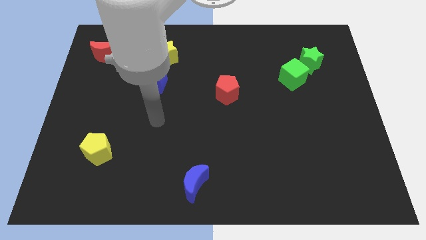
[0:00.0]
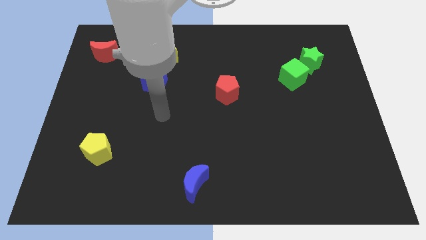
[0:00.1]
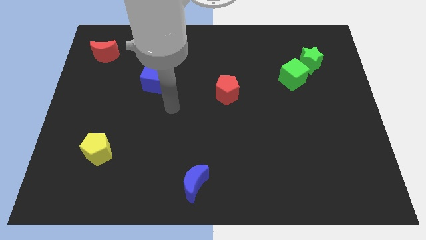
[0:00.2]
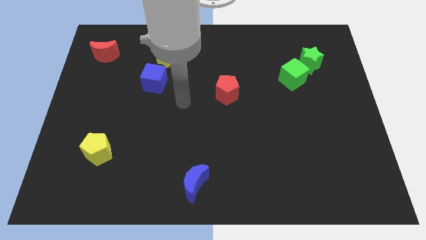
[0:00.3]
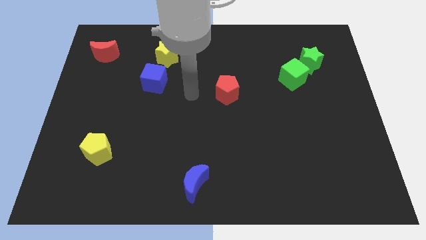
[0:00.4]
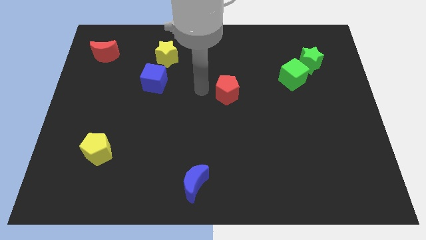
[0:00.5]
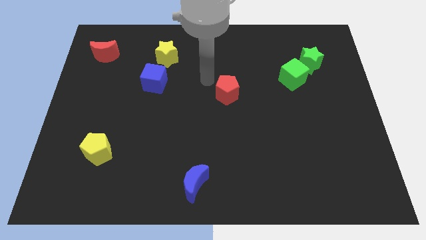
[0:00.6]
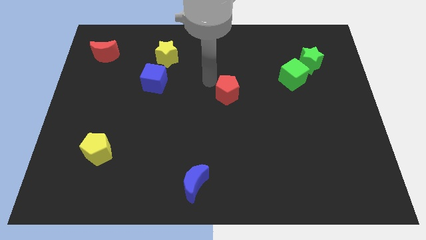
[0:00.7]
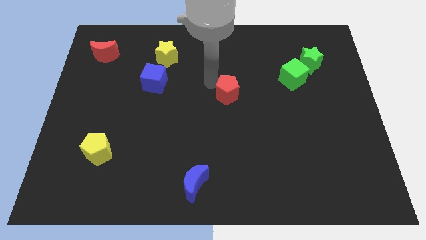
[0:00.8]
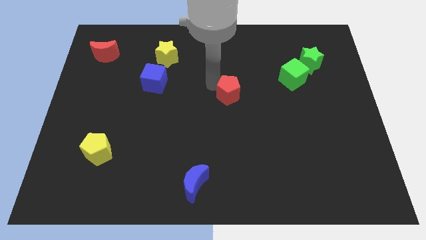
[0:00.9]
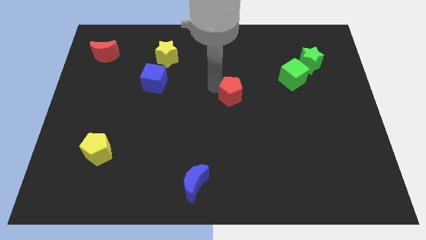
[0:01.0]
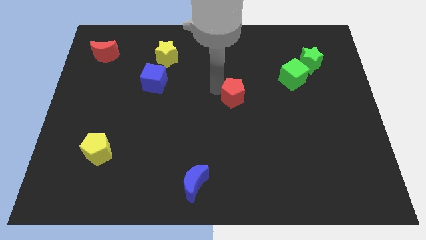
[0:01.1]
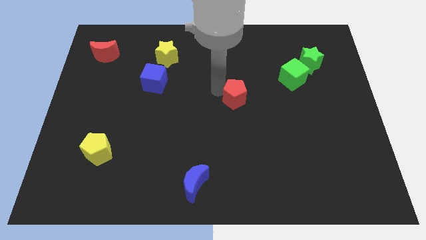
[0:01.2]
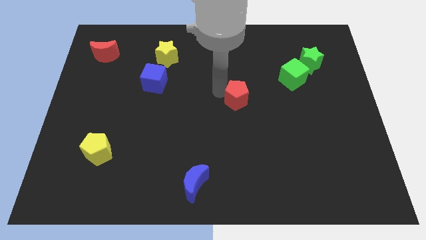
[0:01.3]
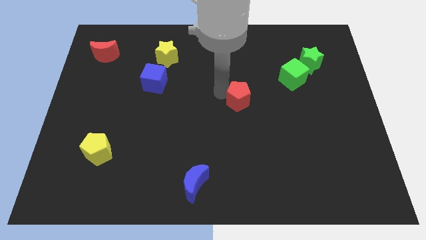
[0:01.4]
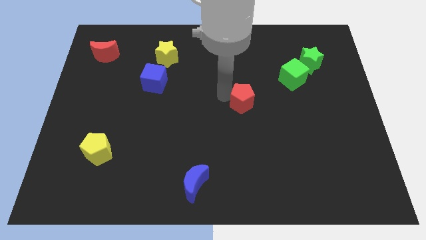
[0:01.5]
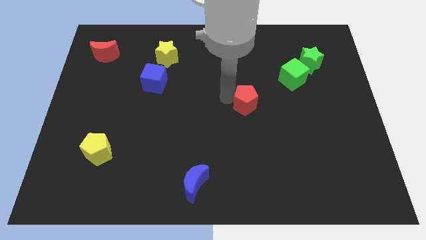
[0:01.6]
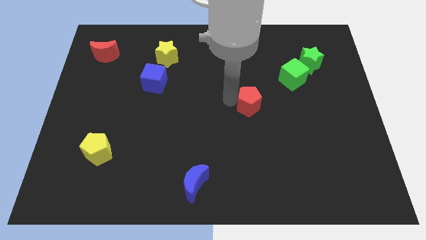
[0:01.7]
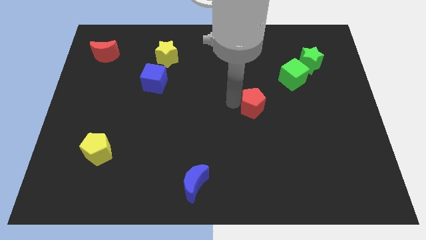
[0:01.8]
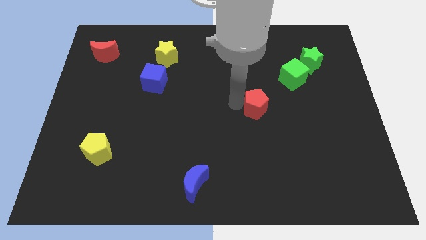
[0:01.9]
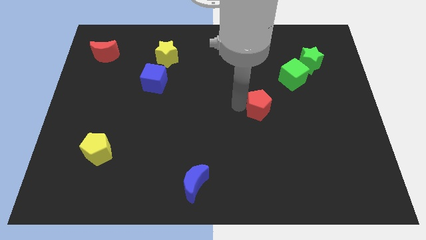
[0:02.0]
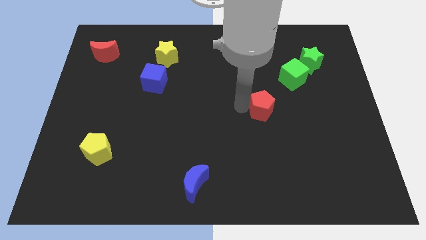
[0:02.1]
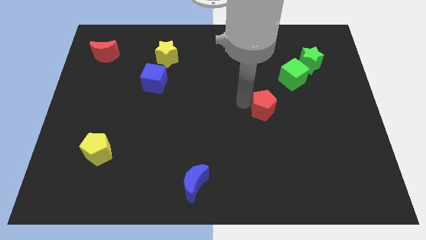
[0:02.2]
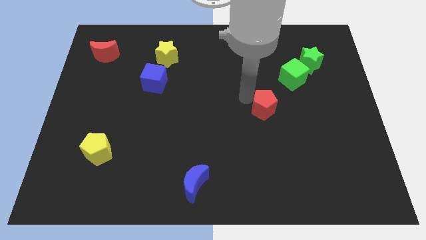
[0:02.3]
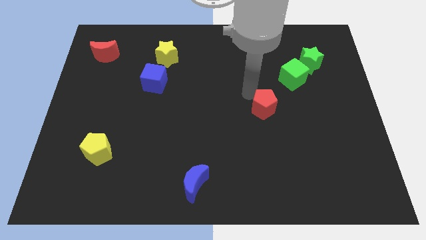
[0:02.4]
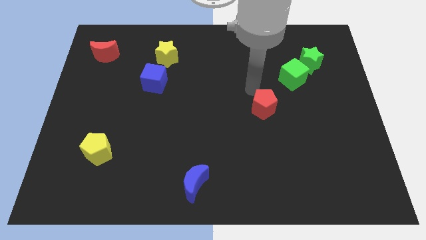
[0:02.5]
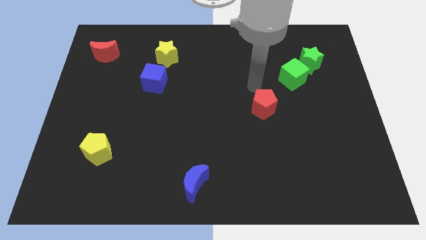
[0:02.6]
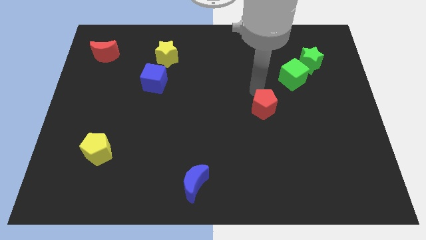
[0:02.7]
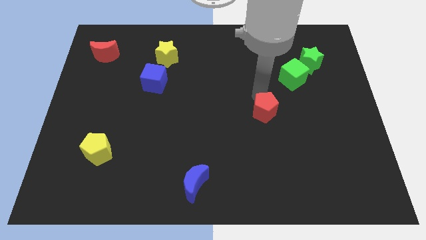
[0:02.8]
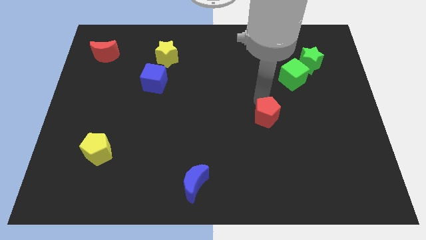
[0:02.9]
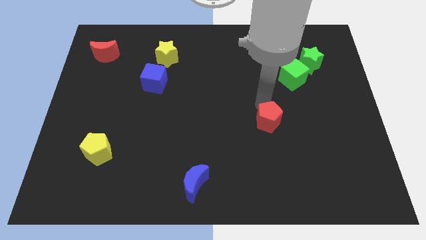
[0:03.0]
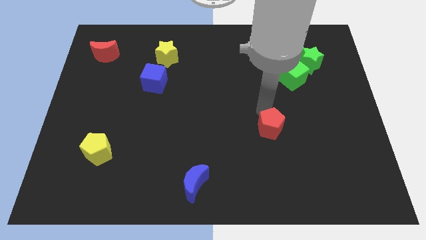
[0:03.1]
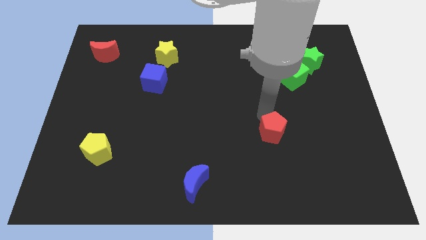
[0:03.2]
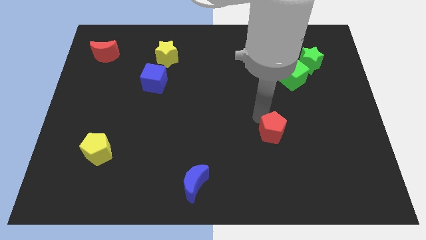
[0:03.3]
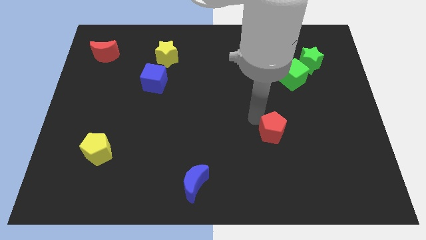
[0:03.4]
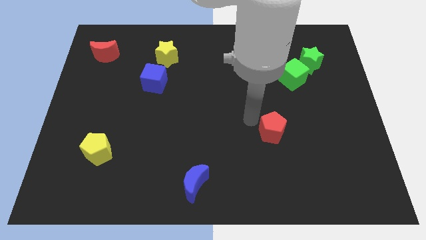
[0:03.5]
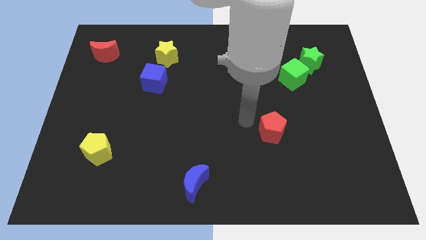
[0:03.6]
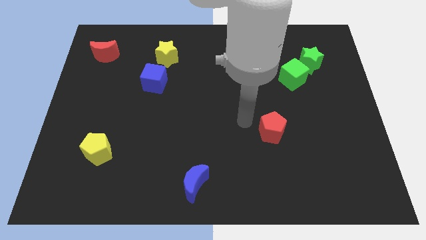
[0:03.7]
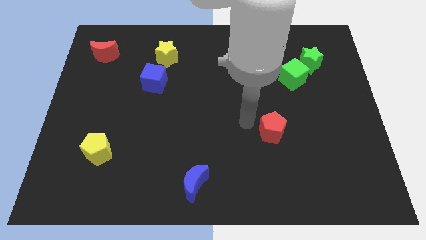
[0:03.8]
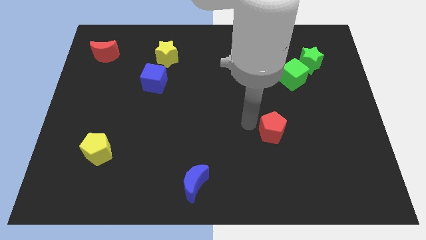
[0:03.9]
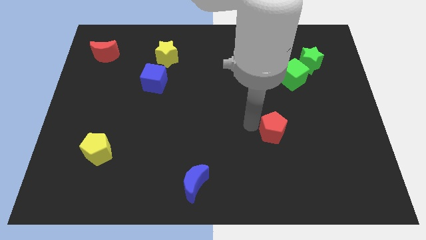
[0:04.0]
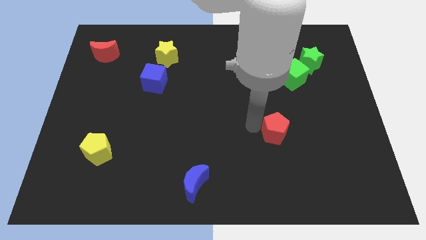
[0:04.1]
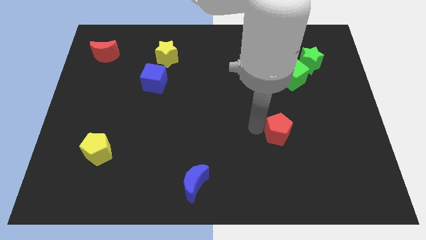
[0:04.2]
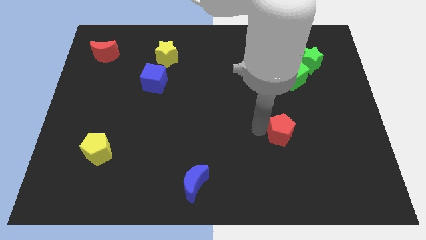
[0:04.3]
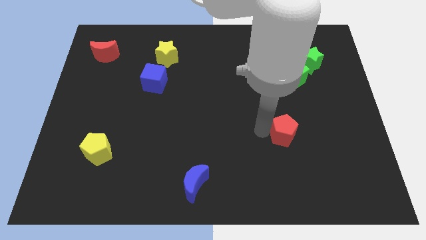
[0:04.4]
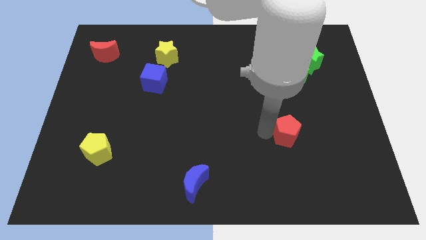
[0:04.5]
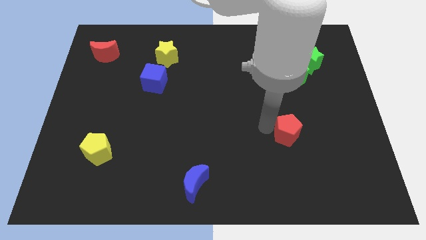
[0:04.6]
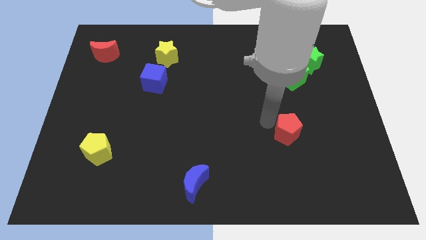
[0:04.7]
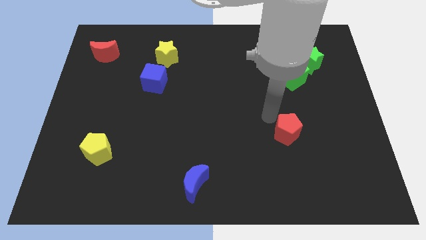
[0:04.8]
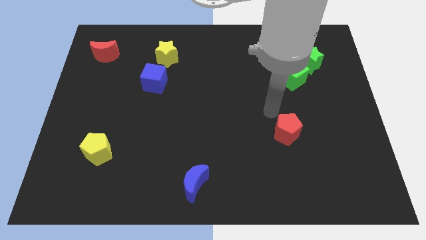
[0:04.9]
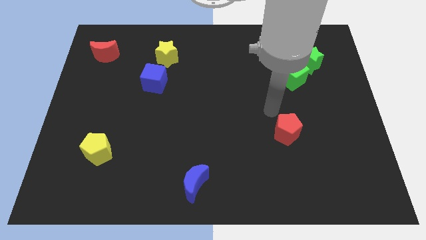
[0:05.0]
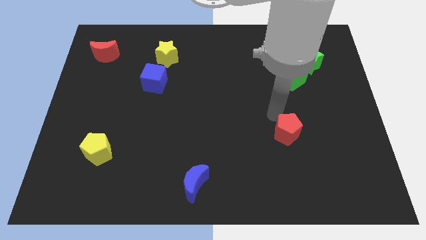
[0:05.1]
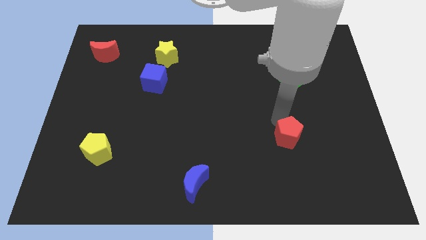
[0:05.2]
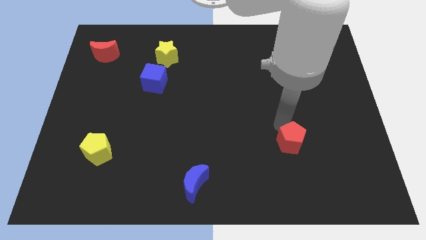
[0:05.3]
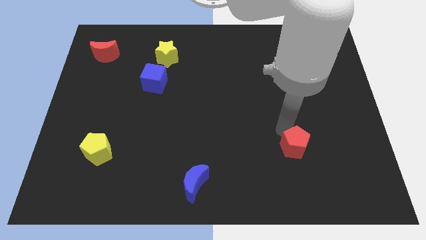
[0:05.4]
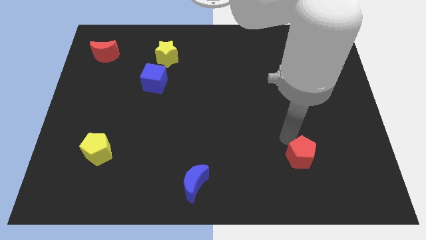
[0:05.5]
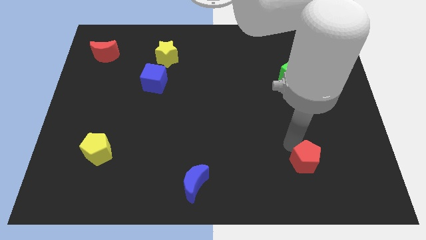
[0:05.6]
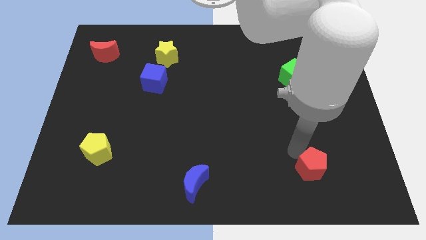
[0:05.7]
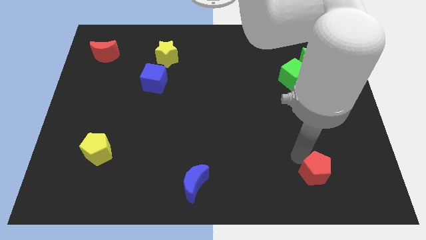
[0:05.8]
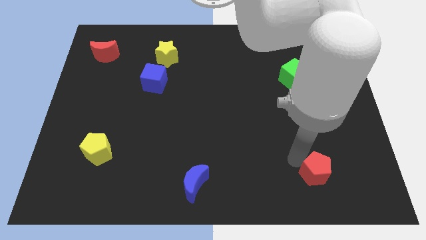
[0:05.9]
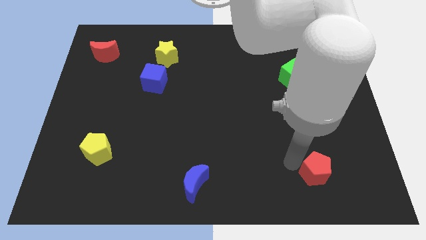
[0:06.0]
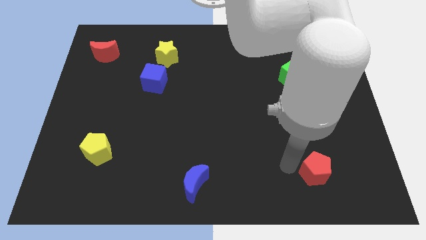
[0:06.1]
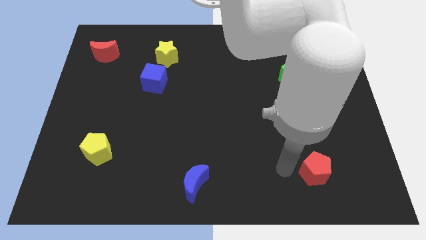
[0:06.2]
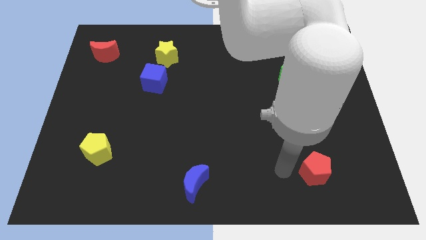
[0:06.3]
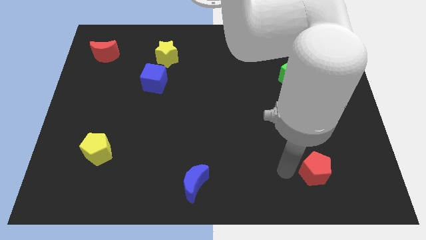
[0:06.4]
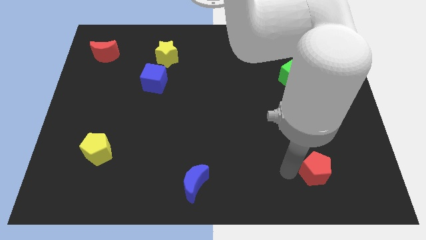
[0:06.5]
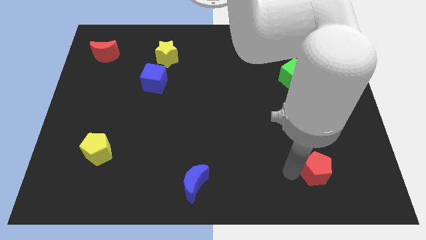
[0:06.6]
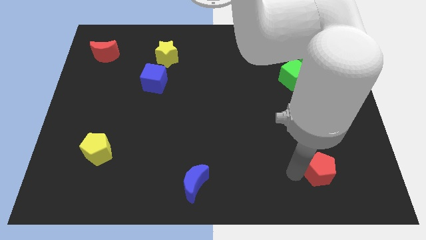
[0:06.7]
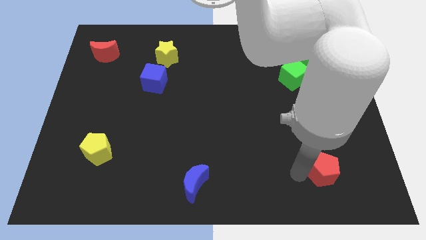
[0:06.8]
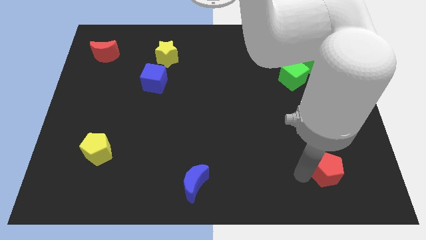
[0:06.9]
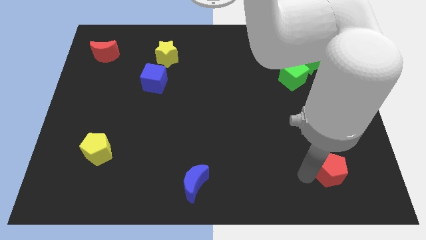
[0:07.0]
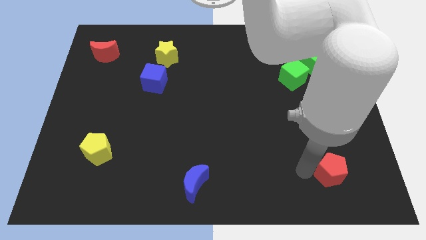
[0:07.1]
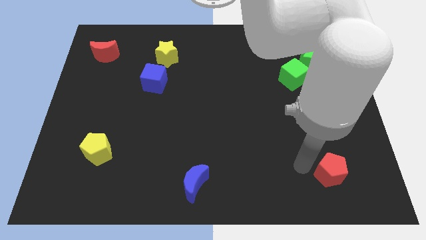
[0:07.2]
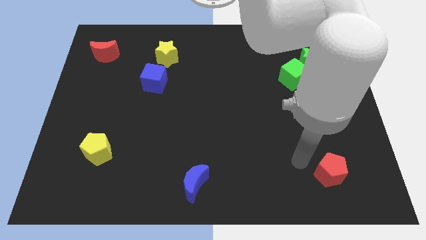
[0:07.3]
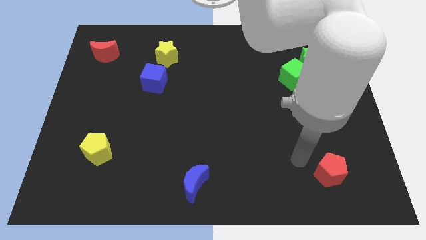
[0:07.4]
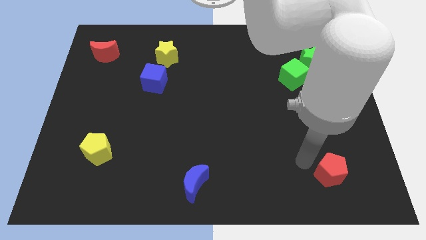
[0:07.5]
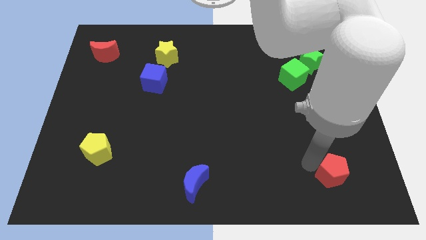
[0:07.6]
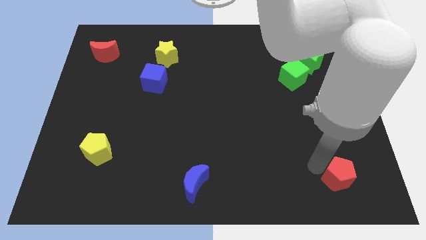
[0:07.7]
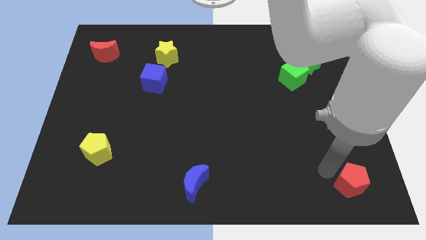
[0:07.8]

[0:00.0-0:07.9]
slide the red pentagon to the bottom right corner
